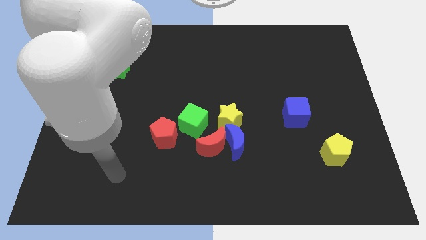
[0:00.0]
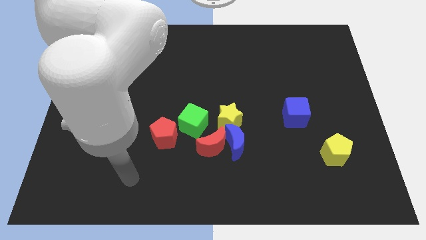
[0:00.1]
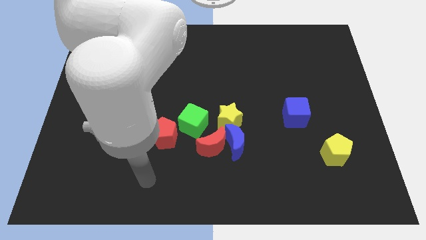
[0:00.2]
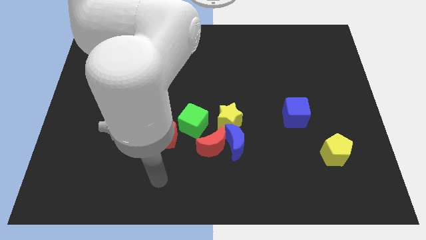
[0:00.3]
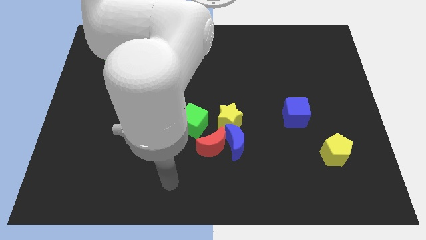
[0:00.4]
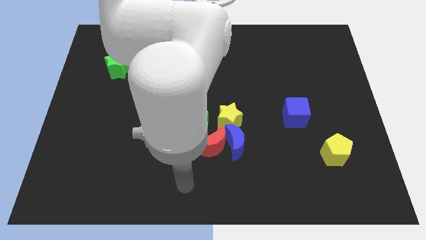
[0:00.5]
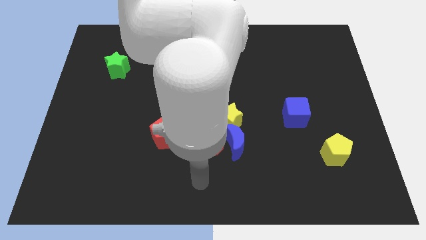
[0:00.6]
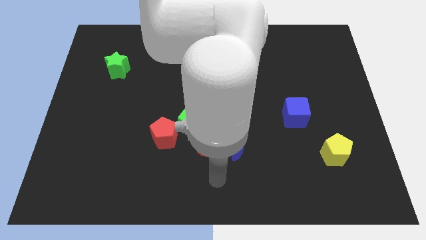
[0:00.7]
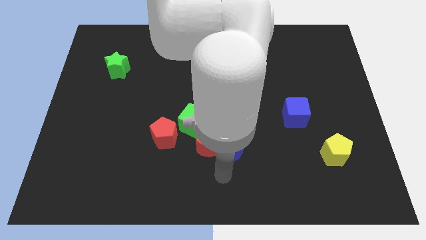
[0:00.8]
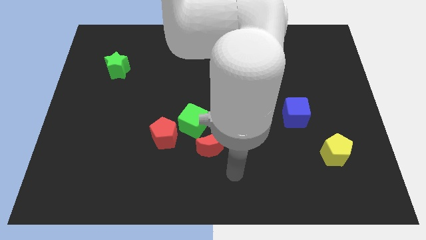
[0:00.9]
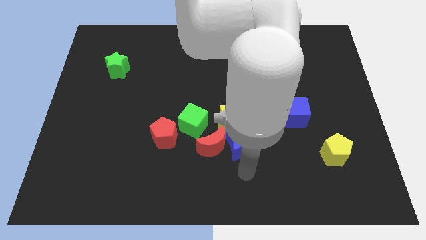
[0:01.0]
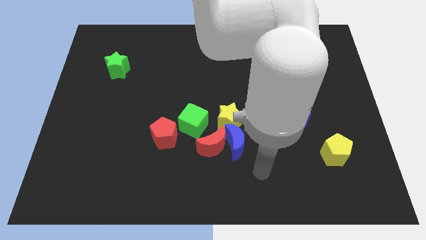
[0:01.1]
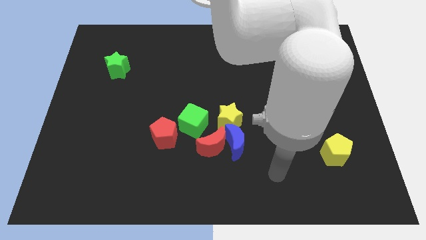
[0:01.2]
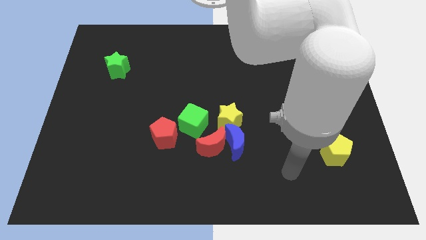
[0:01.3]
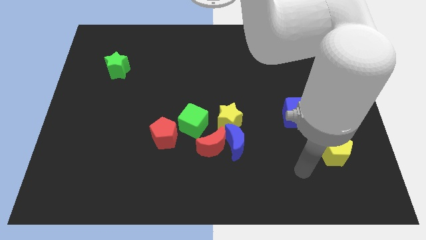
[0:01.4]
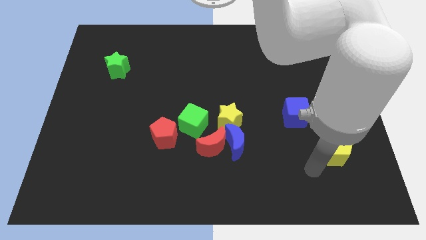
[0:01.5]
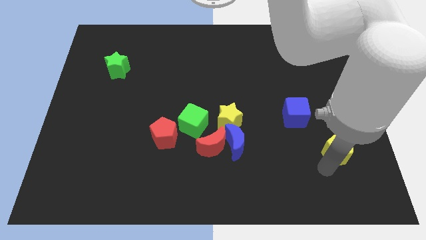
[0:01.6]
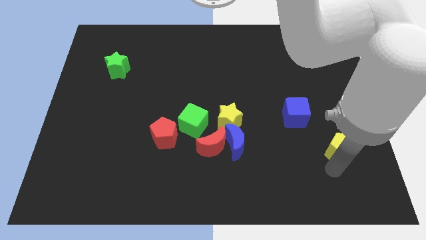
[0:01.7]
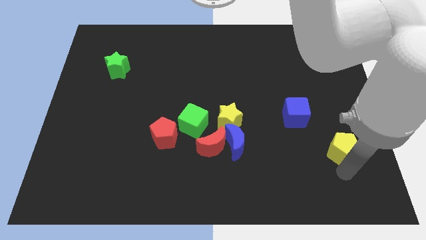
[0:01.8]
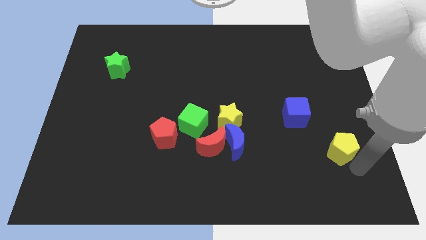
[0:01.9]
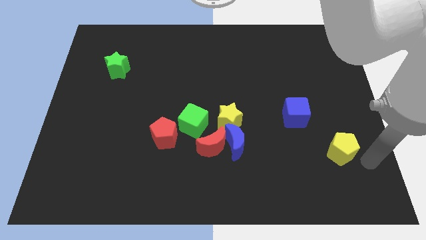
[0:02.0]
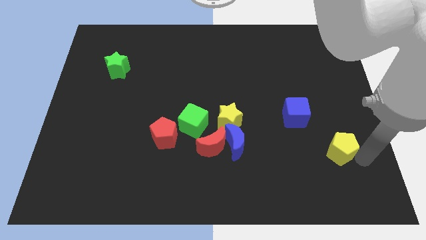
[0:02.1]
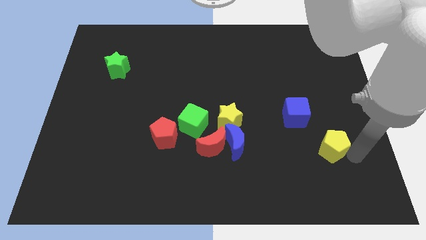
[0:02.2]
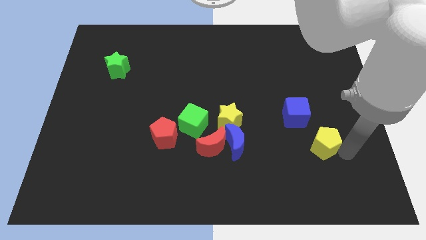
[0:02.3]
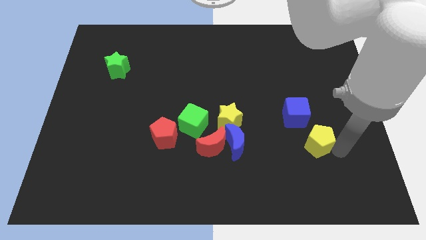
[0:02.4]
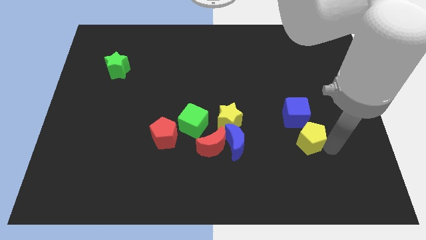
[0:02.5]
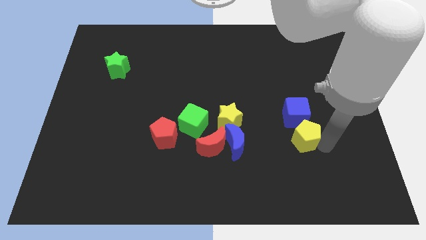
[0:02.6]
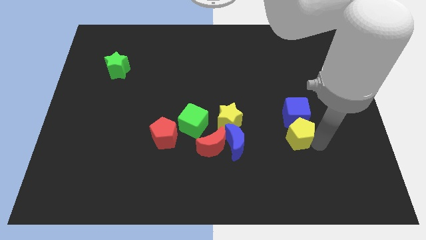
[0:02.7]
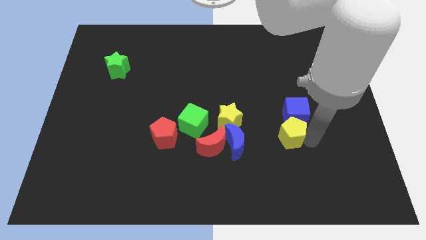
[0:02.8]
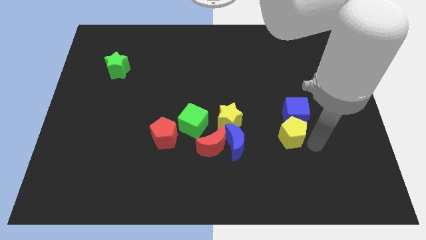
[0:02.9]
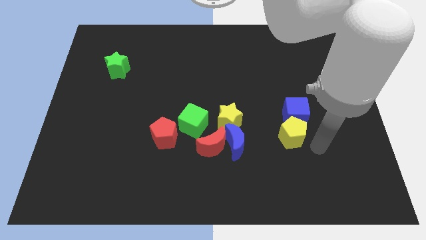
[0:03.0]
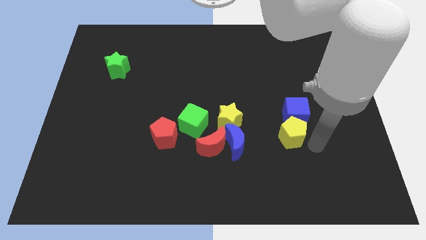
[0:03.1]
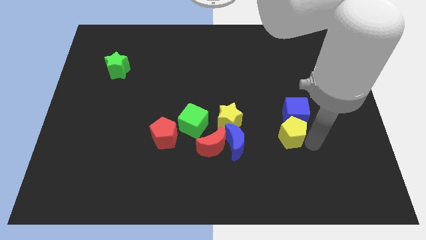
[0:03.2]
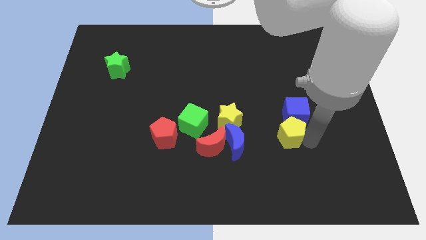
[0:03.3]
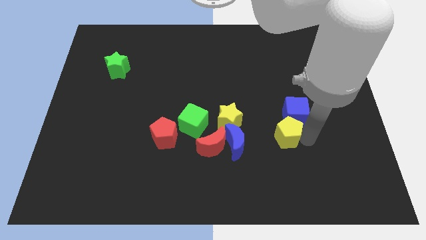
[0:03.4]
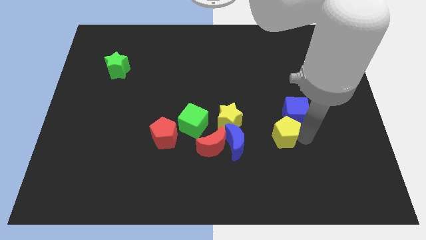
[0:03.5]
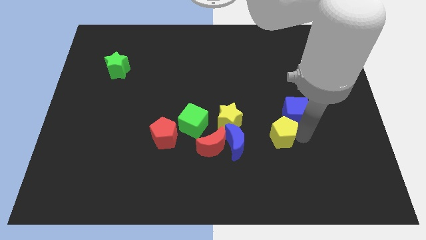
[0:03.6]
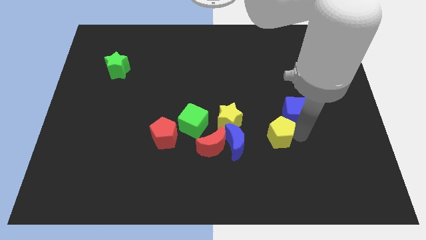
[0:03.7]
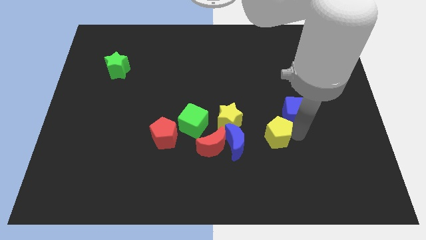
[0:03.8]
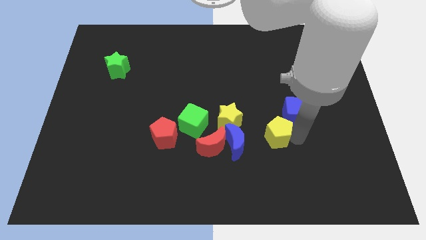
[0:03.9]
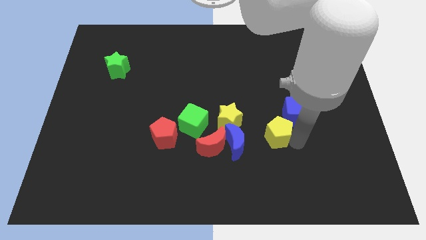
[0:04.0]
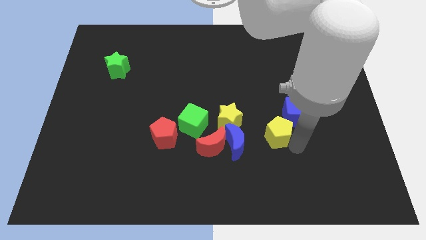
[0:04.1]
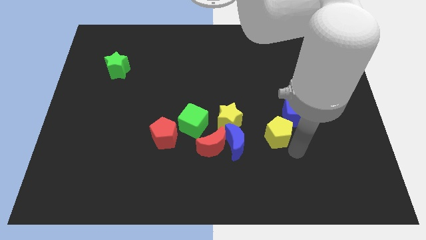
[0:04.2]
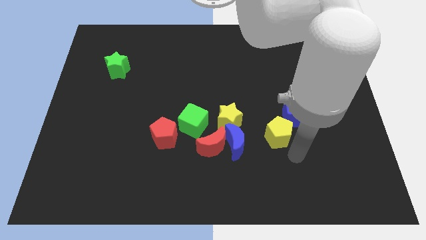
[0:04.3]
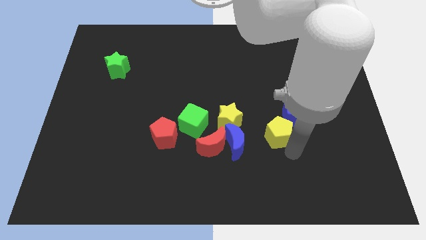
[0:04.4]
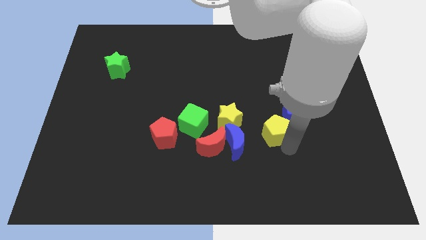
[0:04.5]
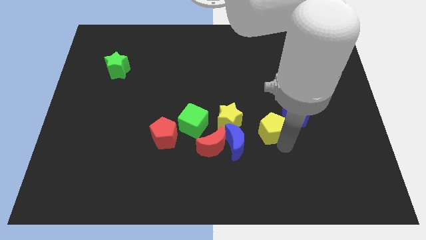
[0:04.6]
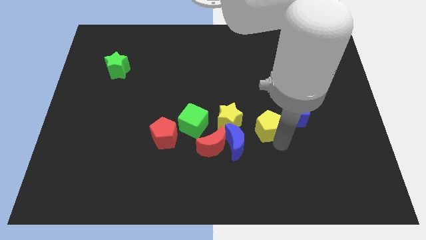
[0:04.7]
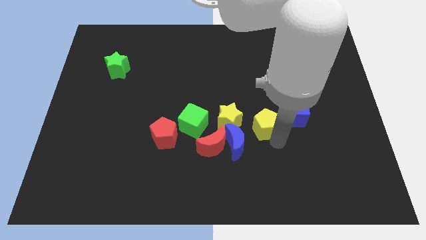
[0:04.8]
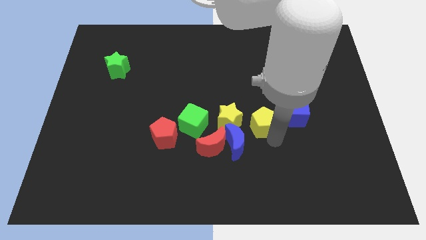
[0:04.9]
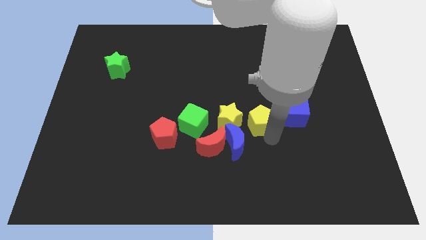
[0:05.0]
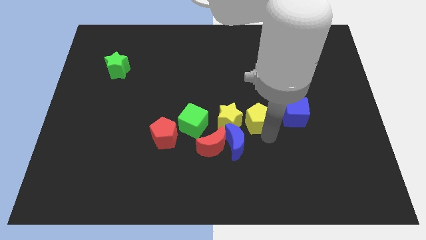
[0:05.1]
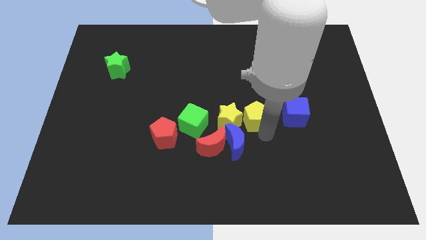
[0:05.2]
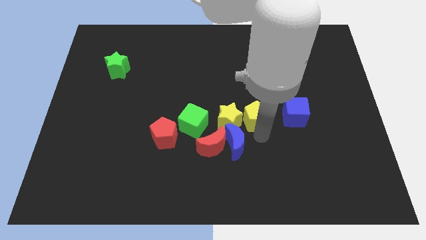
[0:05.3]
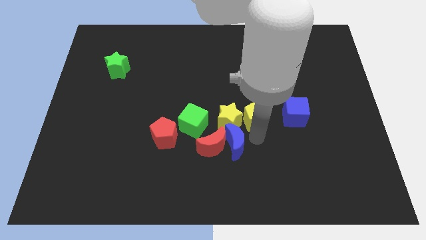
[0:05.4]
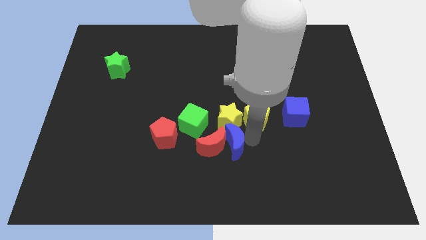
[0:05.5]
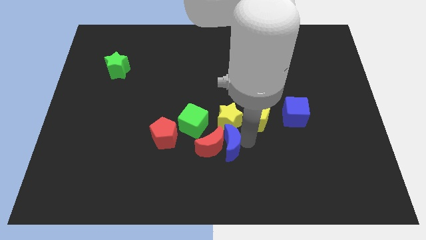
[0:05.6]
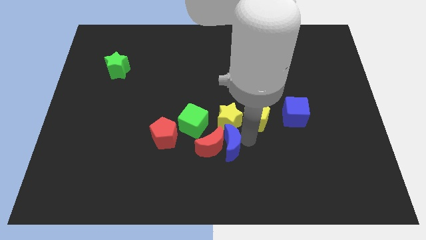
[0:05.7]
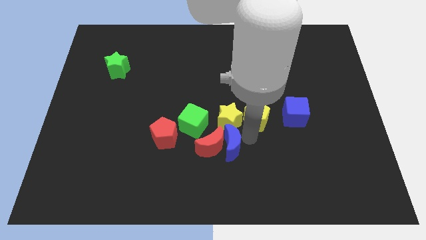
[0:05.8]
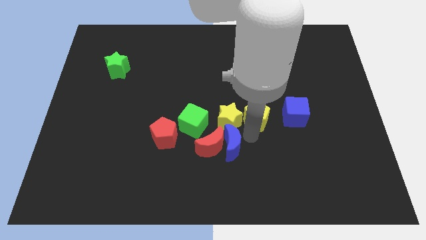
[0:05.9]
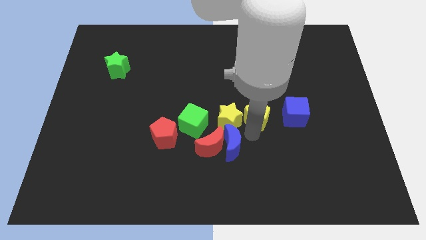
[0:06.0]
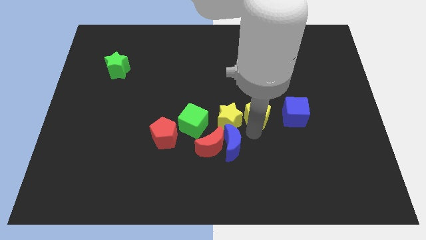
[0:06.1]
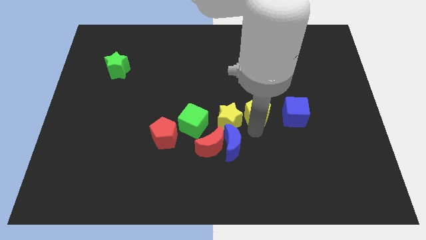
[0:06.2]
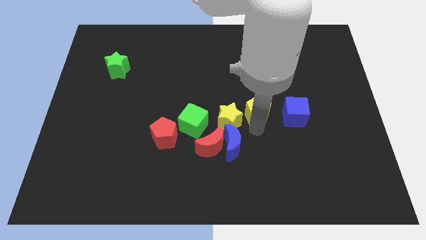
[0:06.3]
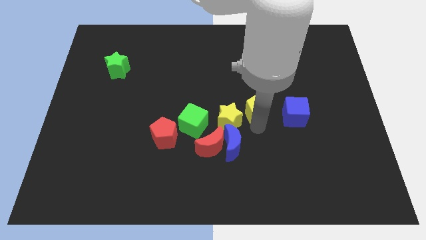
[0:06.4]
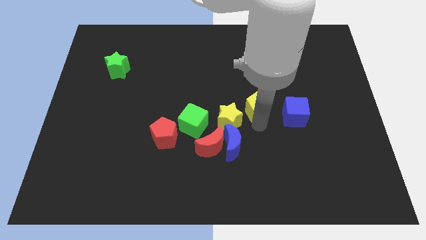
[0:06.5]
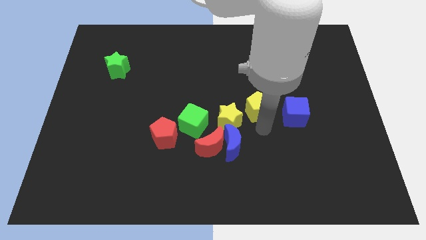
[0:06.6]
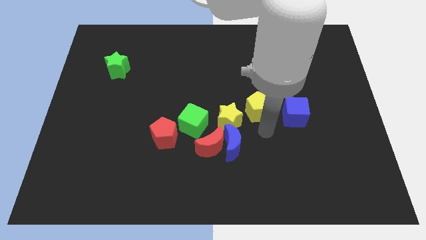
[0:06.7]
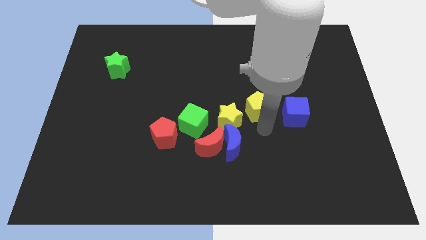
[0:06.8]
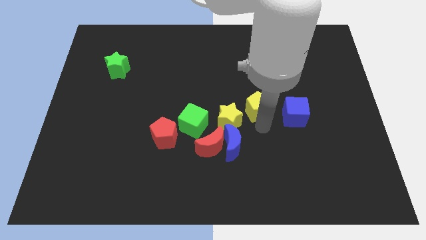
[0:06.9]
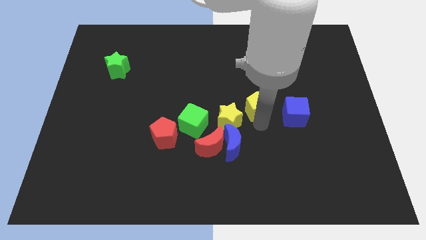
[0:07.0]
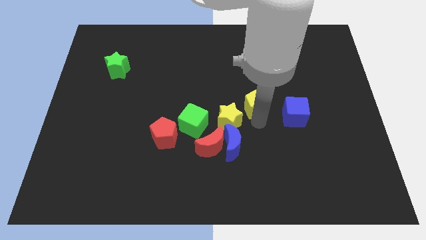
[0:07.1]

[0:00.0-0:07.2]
move the yellow pentagon diagonally up and to the left

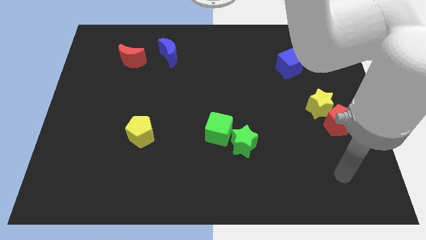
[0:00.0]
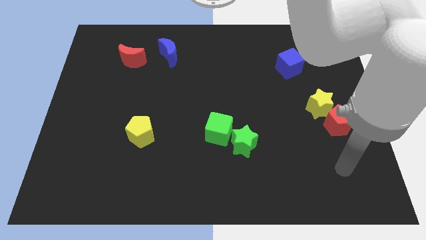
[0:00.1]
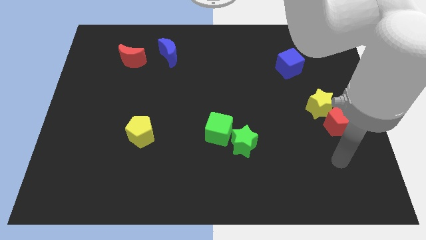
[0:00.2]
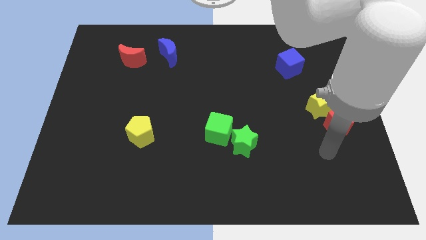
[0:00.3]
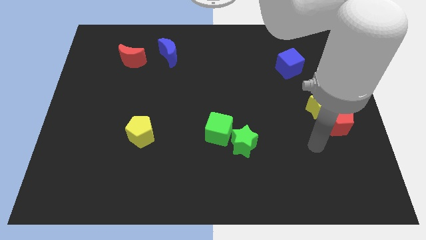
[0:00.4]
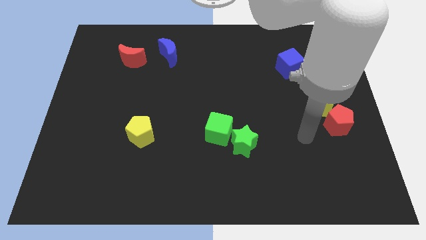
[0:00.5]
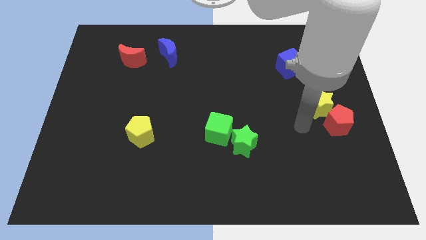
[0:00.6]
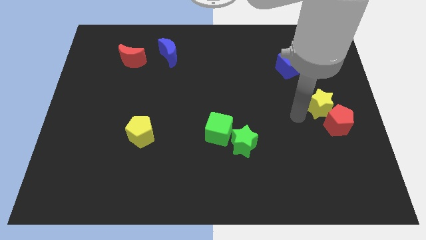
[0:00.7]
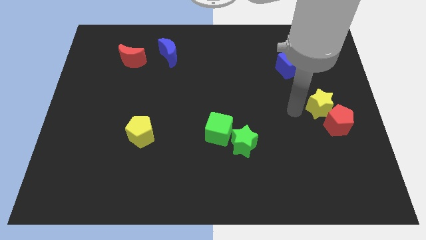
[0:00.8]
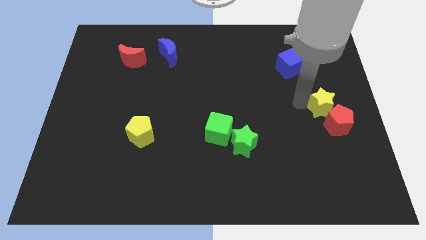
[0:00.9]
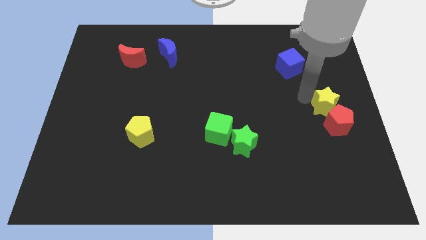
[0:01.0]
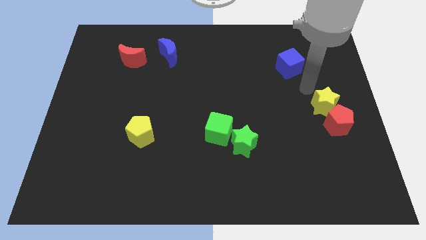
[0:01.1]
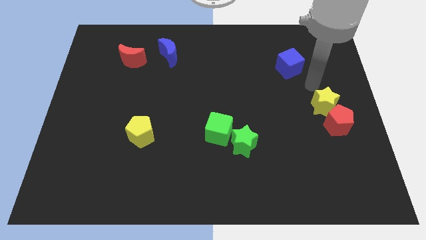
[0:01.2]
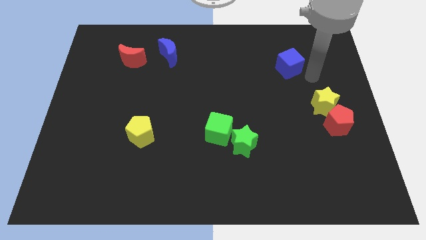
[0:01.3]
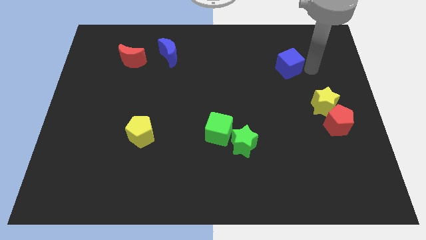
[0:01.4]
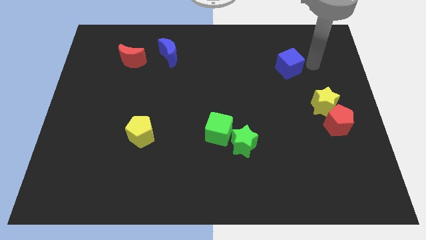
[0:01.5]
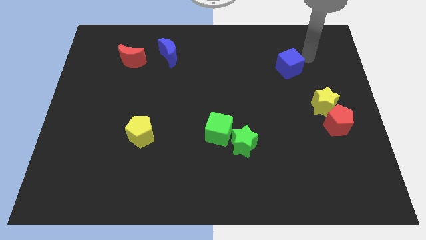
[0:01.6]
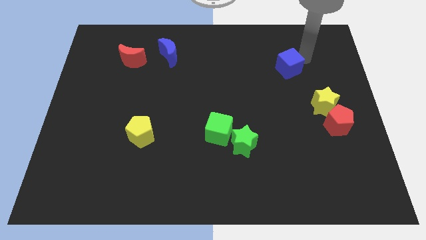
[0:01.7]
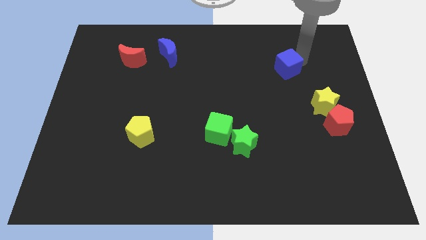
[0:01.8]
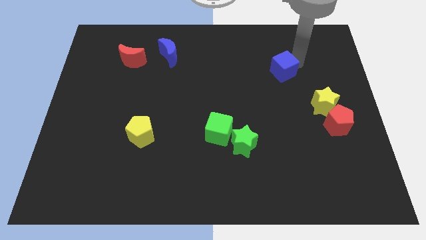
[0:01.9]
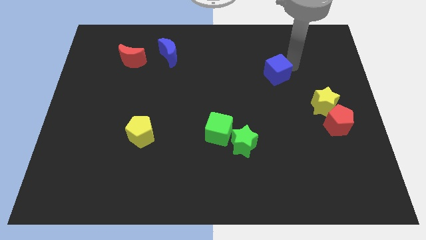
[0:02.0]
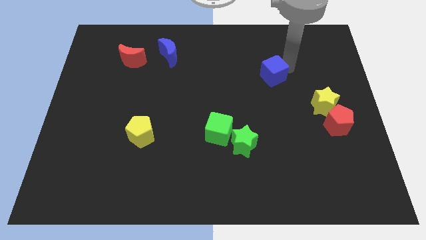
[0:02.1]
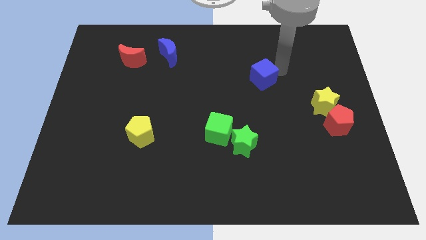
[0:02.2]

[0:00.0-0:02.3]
slightly slide the blue cube down and to the left diagonally
